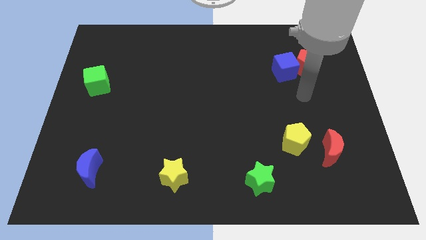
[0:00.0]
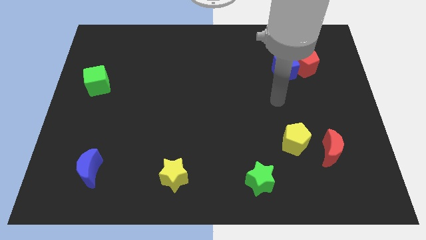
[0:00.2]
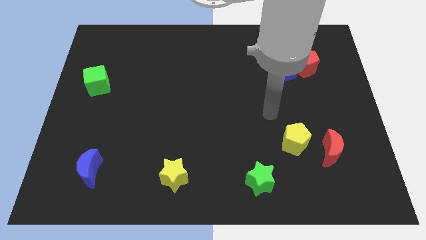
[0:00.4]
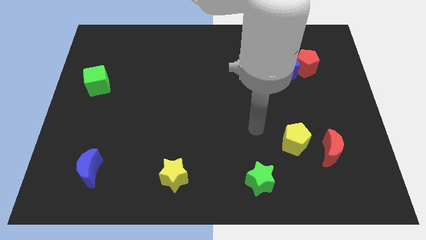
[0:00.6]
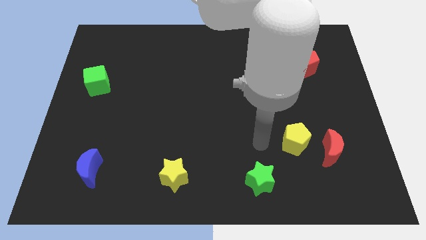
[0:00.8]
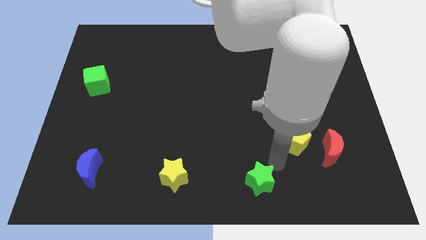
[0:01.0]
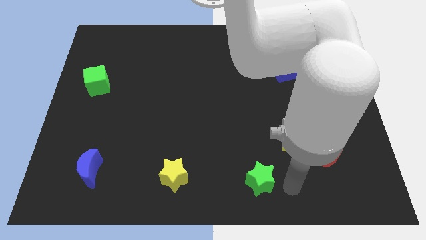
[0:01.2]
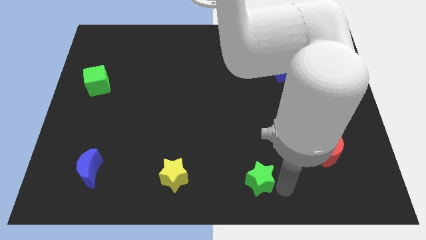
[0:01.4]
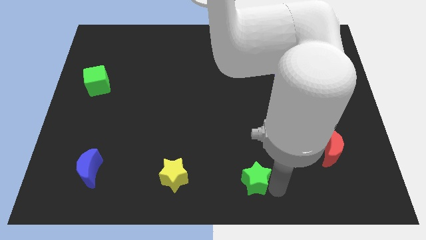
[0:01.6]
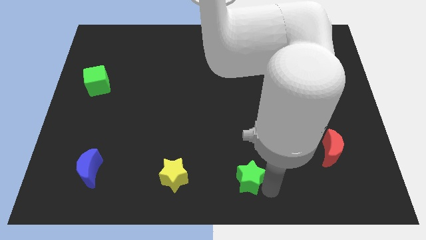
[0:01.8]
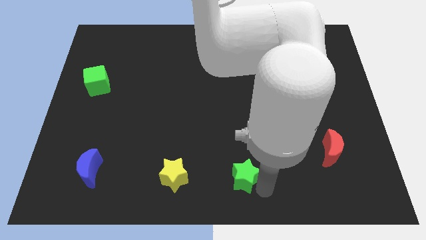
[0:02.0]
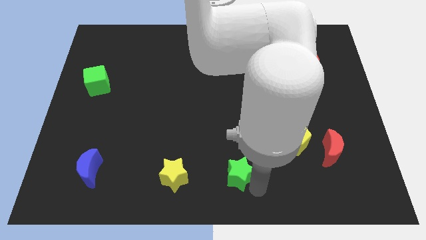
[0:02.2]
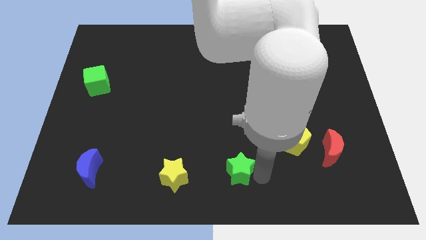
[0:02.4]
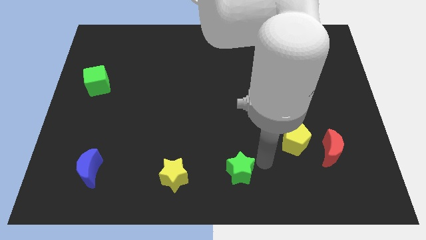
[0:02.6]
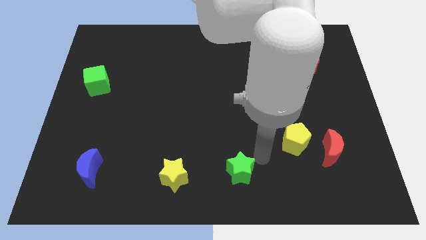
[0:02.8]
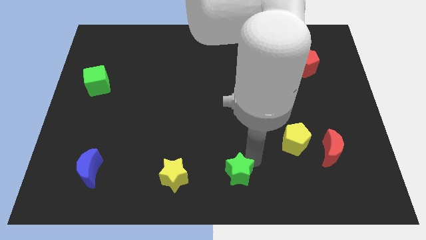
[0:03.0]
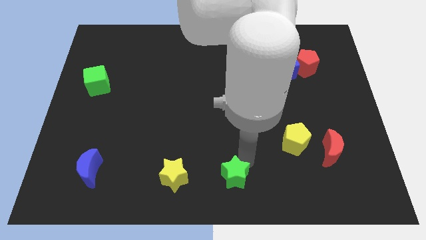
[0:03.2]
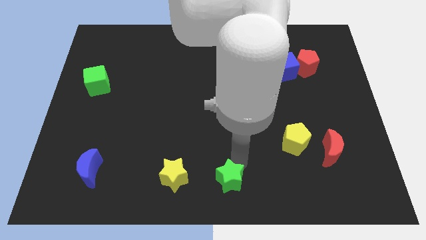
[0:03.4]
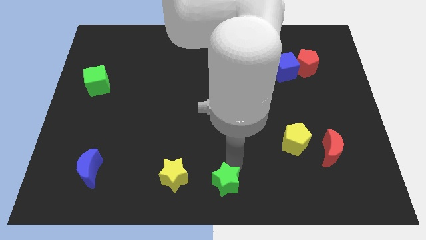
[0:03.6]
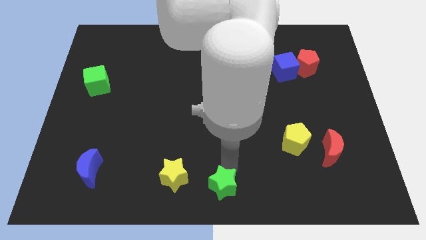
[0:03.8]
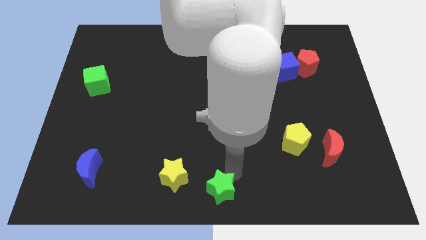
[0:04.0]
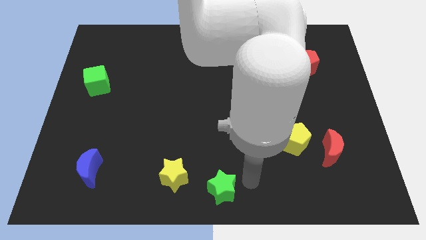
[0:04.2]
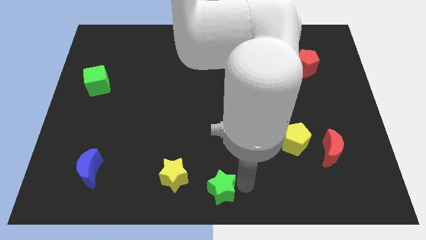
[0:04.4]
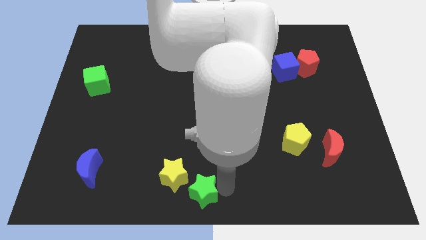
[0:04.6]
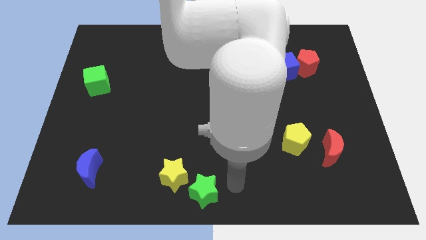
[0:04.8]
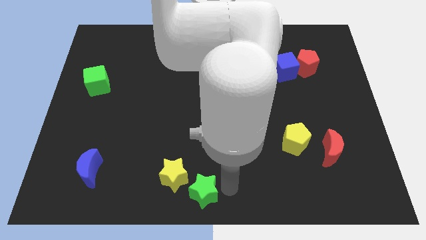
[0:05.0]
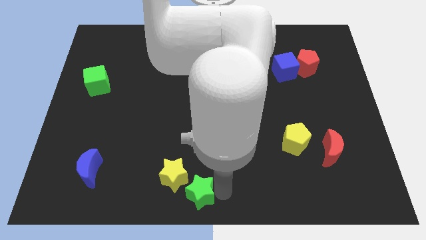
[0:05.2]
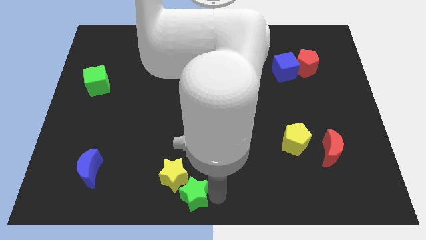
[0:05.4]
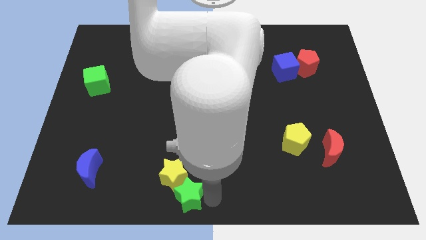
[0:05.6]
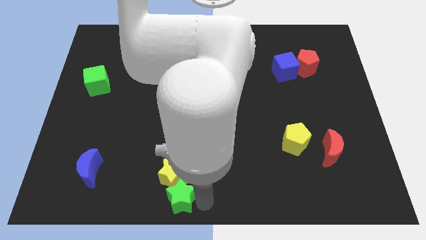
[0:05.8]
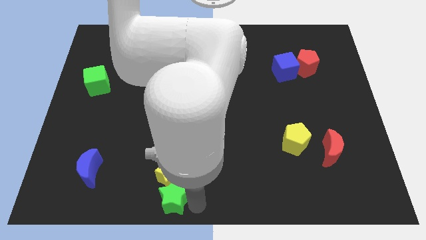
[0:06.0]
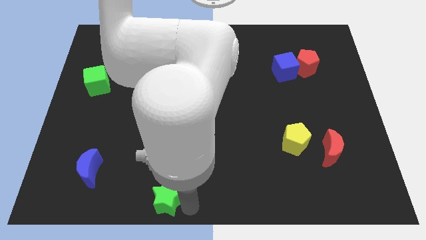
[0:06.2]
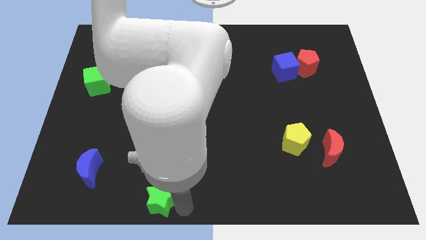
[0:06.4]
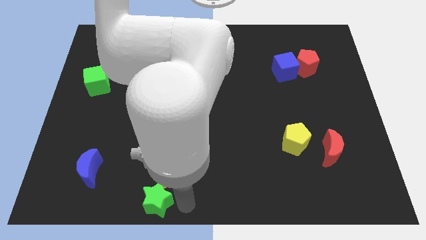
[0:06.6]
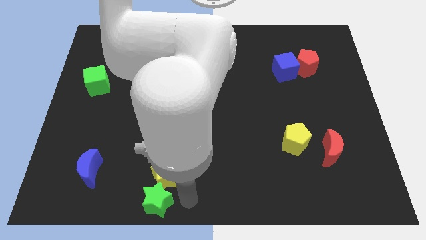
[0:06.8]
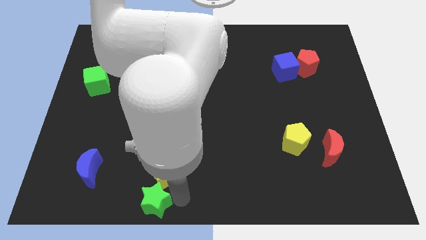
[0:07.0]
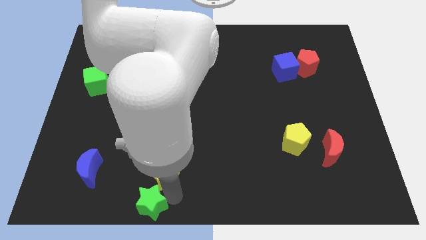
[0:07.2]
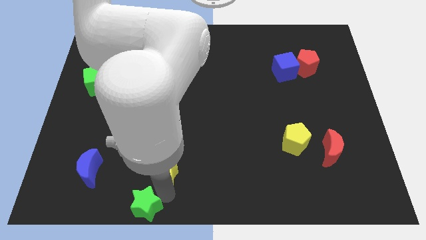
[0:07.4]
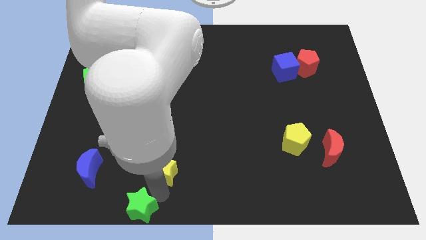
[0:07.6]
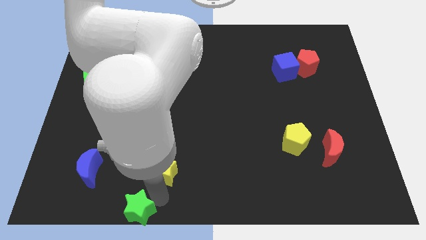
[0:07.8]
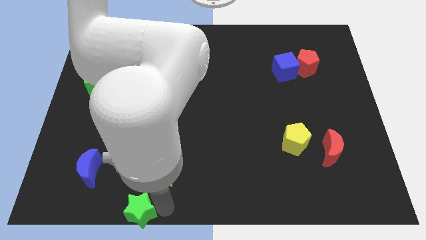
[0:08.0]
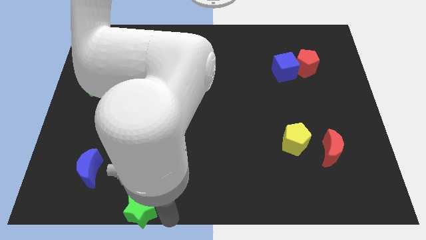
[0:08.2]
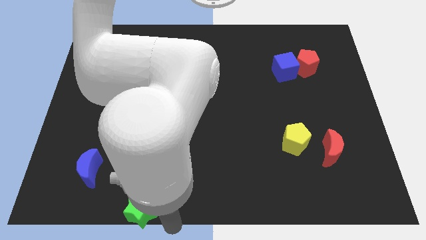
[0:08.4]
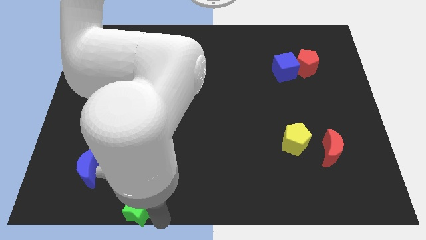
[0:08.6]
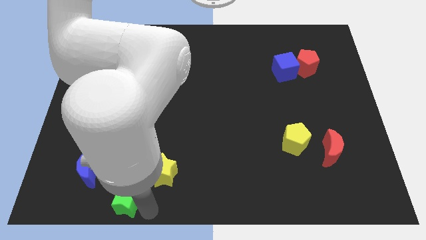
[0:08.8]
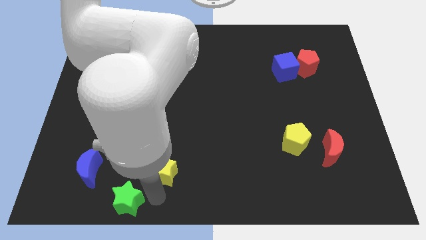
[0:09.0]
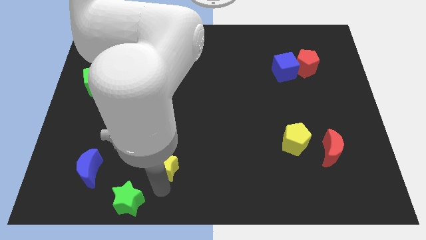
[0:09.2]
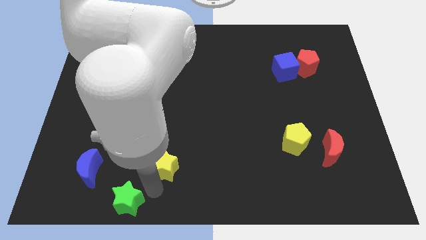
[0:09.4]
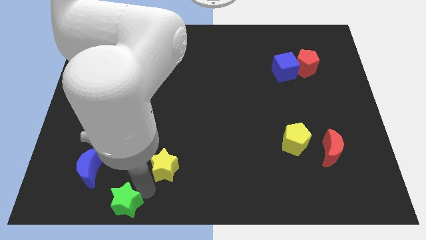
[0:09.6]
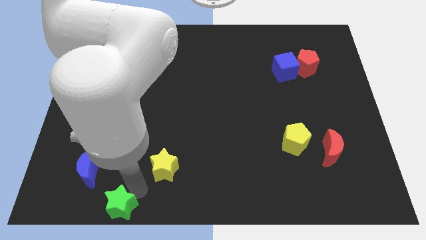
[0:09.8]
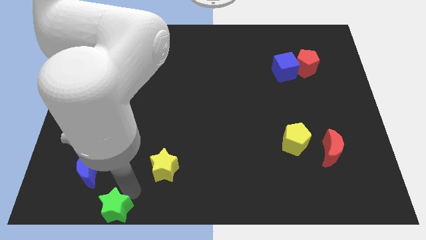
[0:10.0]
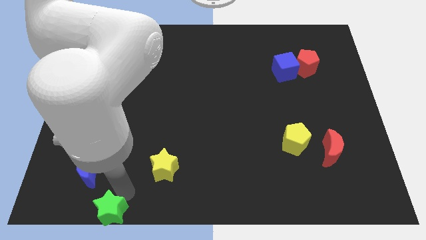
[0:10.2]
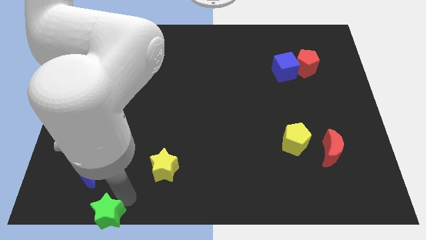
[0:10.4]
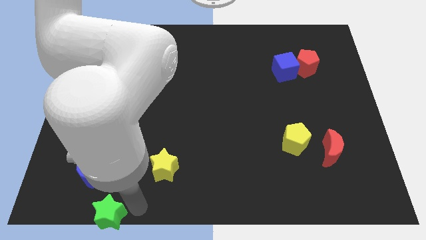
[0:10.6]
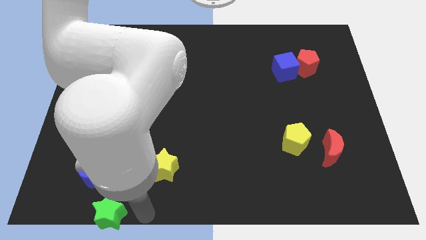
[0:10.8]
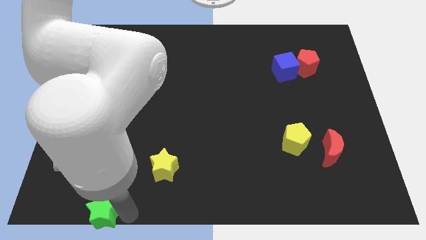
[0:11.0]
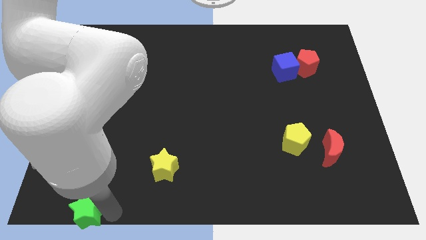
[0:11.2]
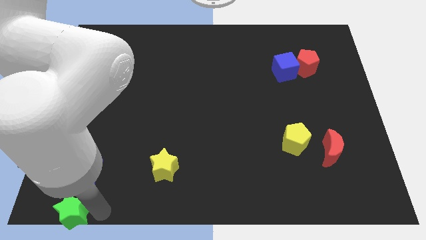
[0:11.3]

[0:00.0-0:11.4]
push the green star to the bottom left corner
